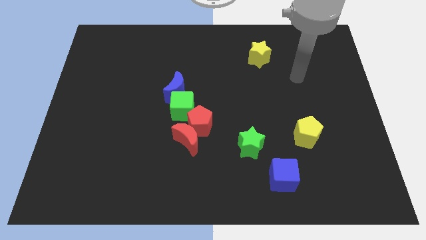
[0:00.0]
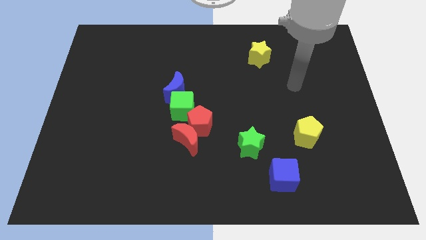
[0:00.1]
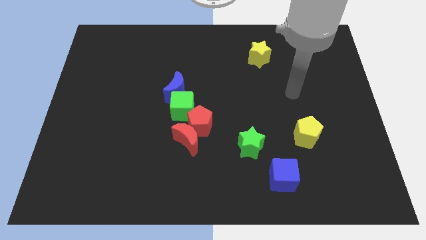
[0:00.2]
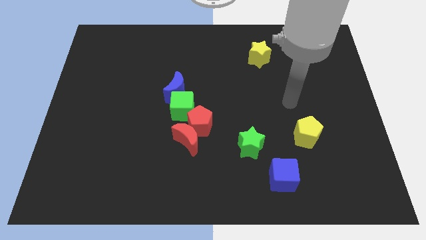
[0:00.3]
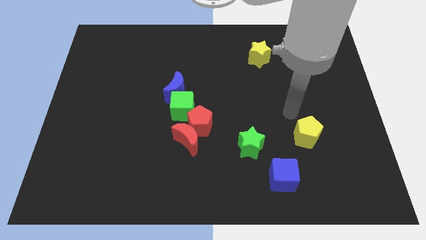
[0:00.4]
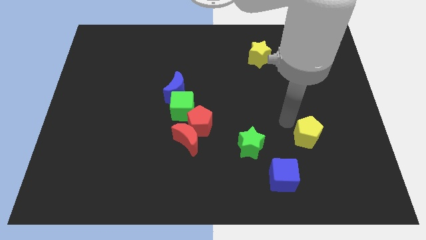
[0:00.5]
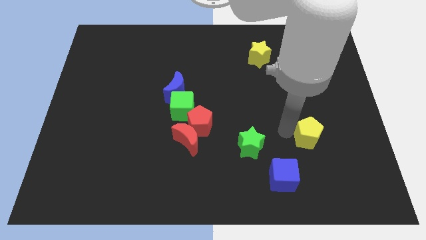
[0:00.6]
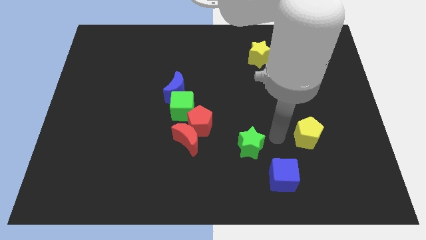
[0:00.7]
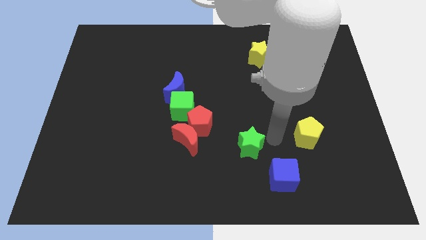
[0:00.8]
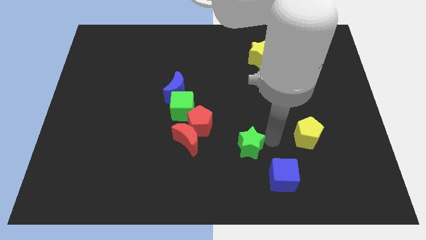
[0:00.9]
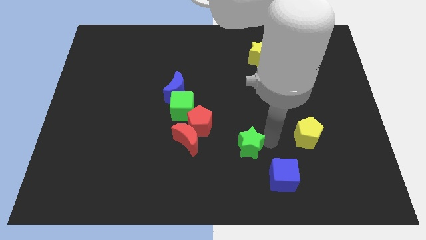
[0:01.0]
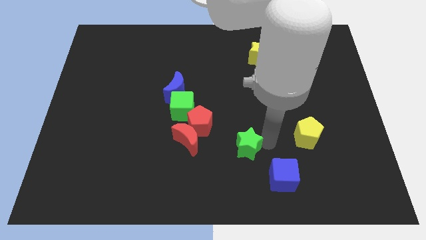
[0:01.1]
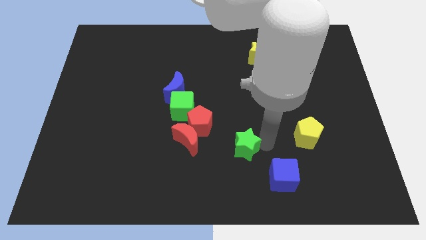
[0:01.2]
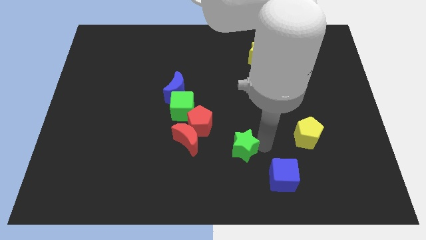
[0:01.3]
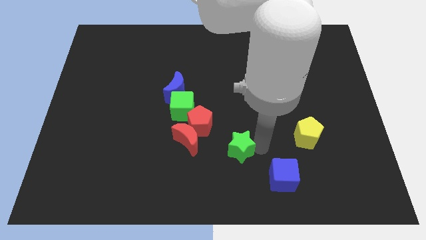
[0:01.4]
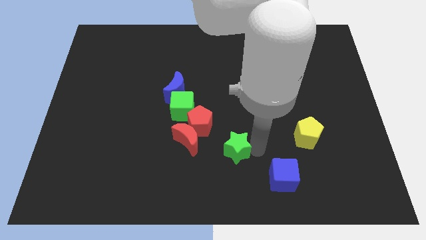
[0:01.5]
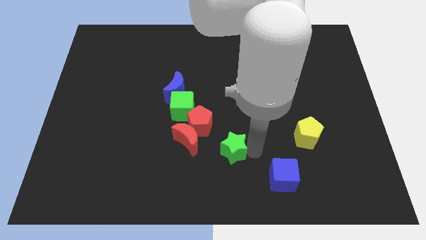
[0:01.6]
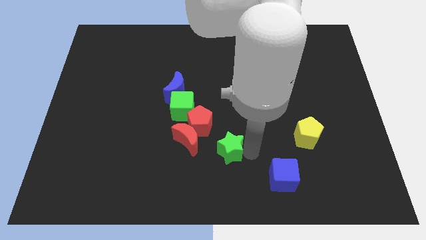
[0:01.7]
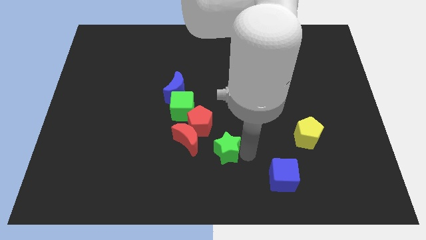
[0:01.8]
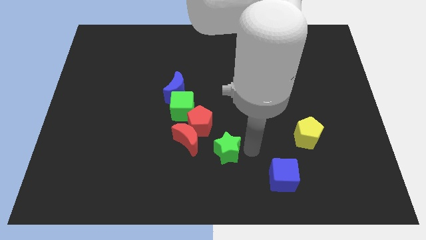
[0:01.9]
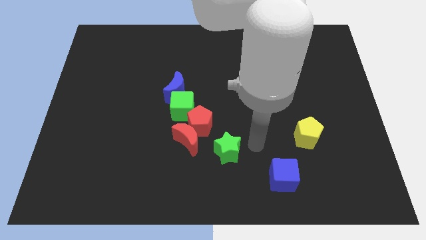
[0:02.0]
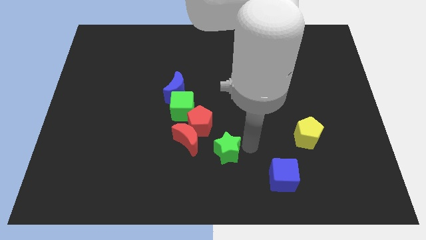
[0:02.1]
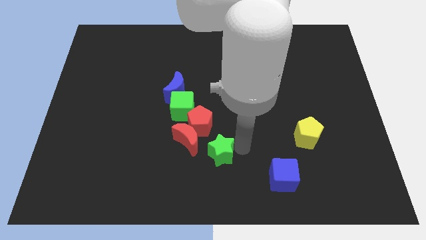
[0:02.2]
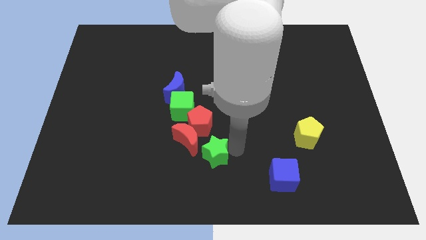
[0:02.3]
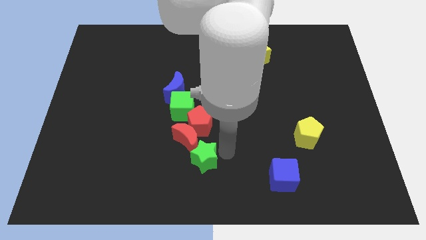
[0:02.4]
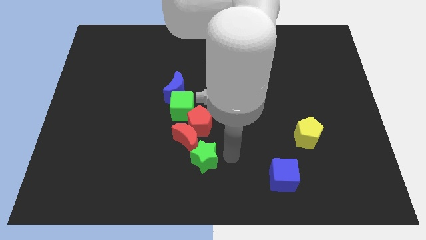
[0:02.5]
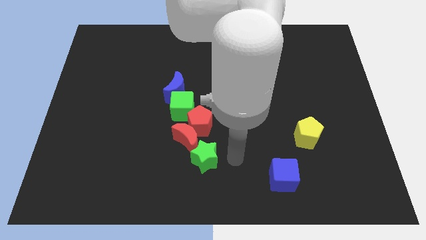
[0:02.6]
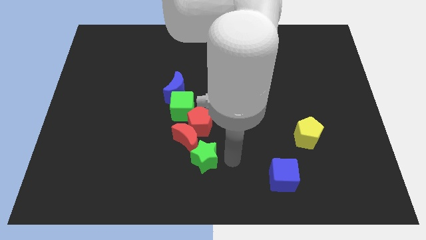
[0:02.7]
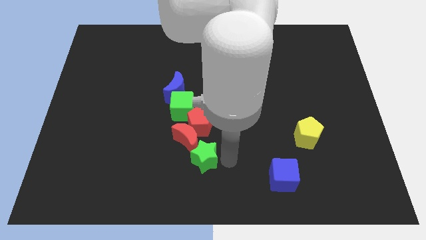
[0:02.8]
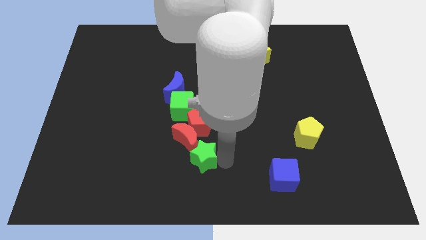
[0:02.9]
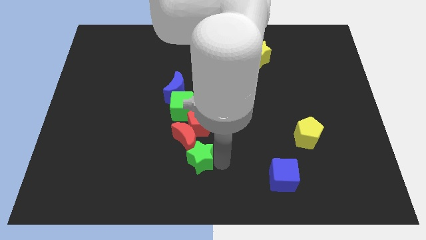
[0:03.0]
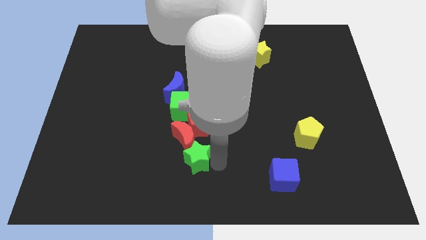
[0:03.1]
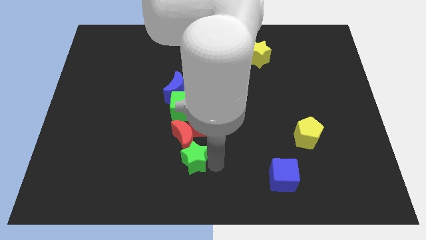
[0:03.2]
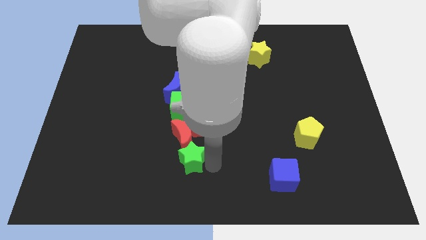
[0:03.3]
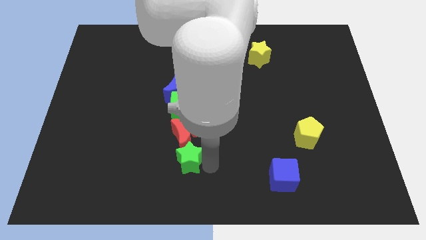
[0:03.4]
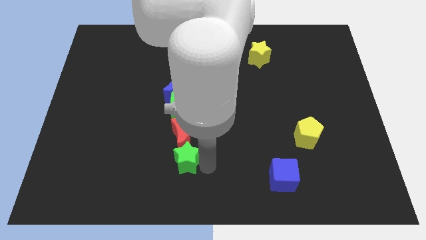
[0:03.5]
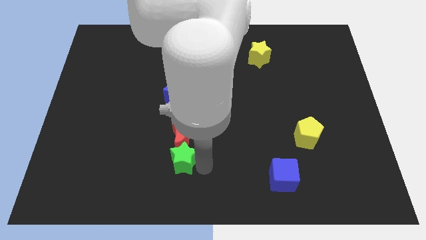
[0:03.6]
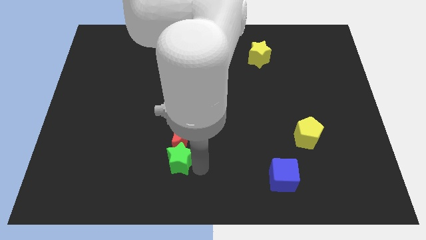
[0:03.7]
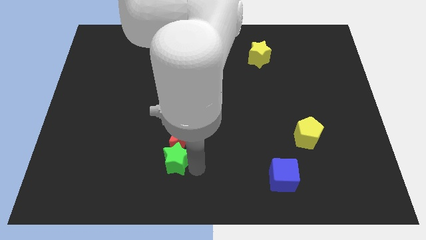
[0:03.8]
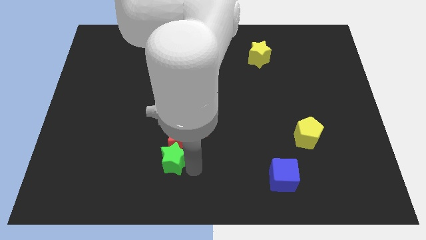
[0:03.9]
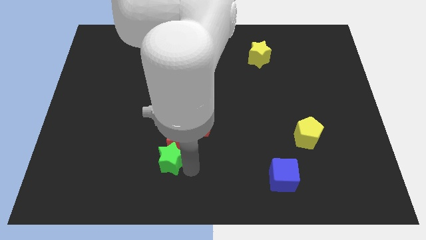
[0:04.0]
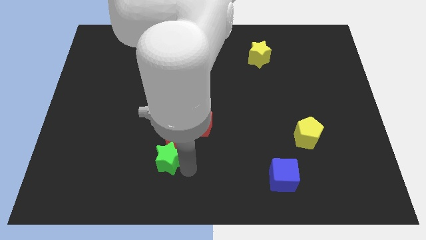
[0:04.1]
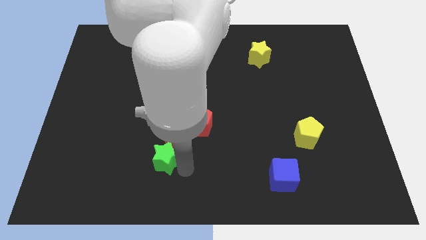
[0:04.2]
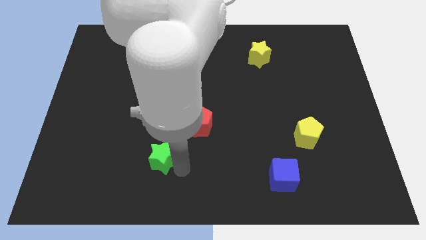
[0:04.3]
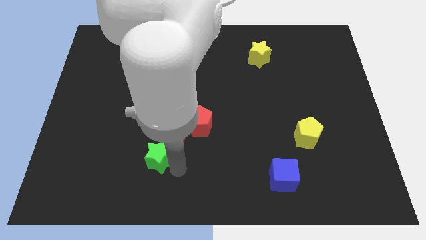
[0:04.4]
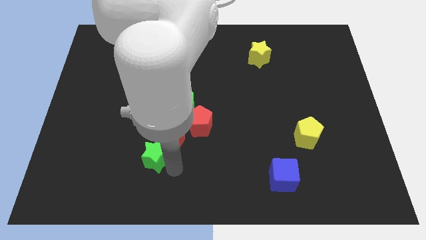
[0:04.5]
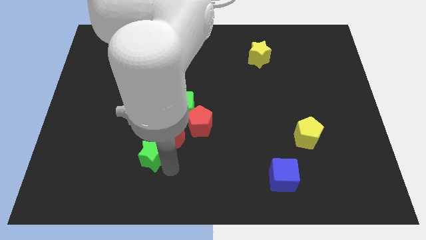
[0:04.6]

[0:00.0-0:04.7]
slide the green star to the left

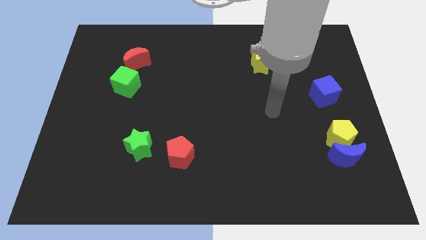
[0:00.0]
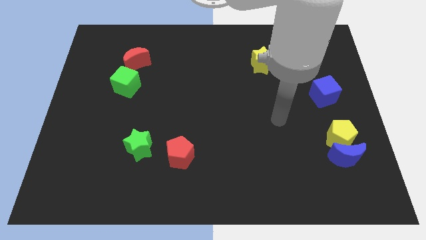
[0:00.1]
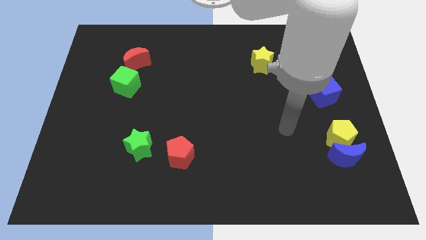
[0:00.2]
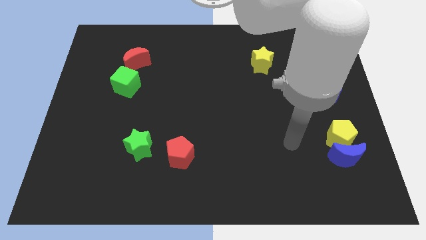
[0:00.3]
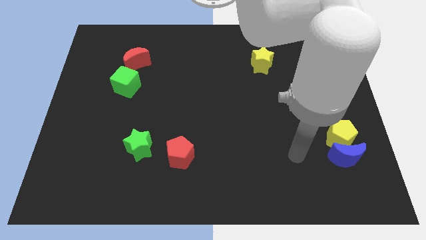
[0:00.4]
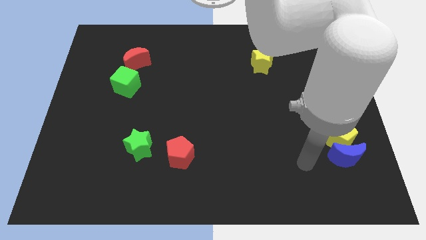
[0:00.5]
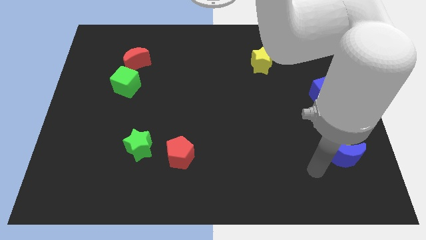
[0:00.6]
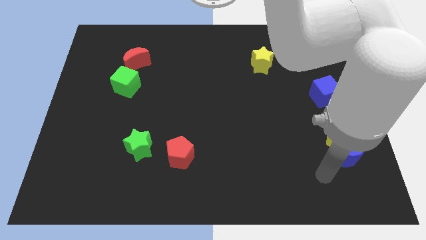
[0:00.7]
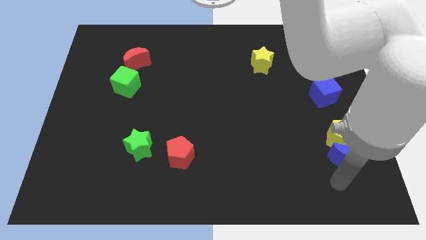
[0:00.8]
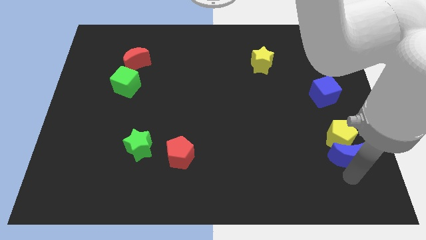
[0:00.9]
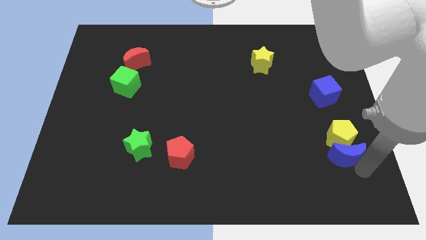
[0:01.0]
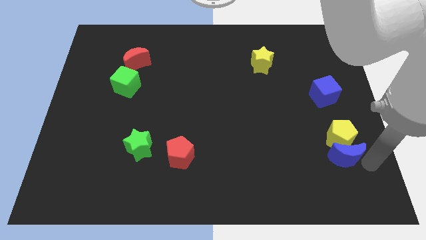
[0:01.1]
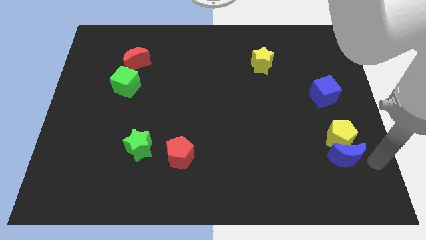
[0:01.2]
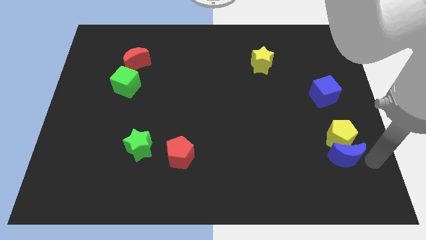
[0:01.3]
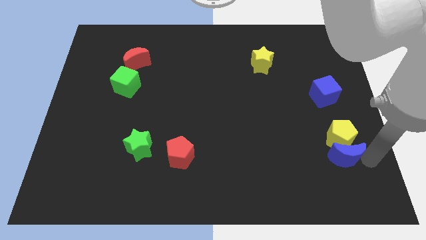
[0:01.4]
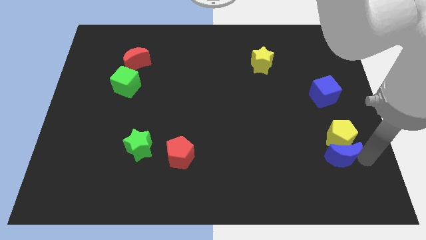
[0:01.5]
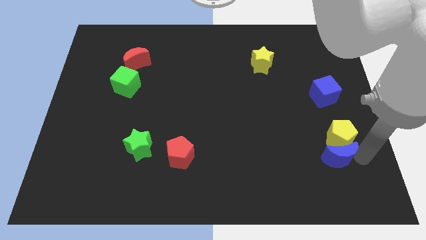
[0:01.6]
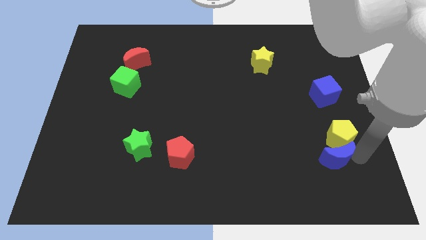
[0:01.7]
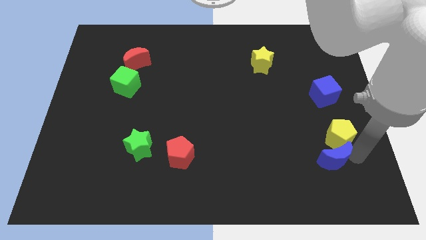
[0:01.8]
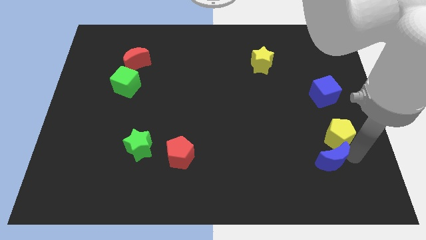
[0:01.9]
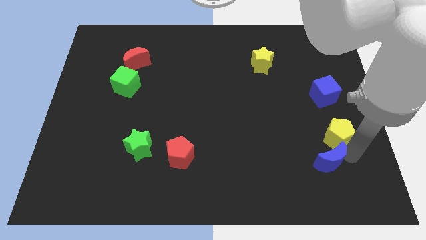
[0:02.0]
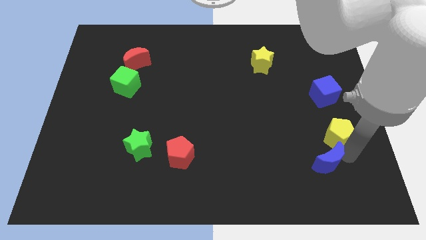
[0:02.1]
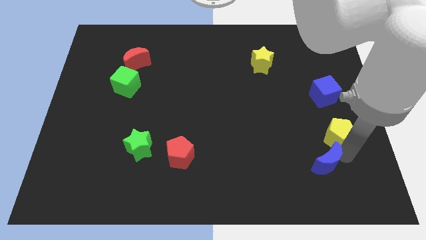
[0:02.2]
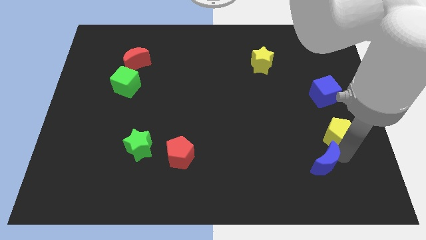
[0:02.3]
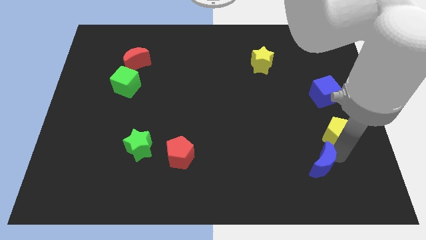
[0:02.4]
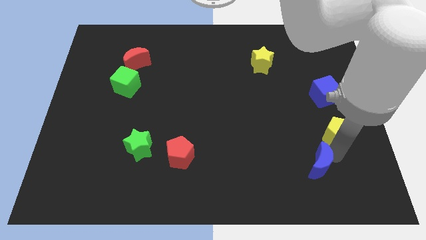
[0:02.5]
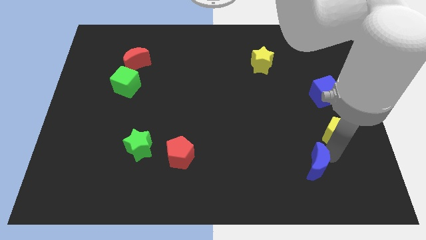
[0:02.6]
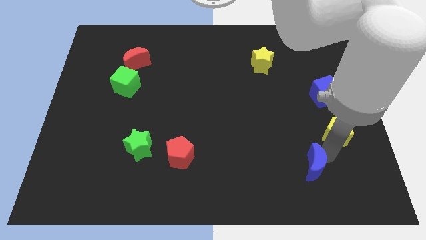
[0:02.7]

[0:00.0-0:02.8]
push the blue moon left slightly
